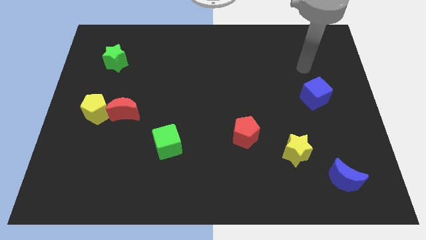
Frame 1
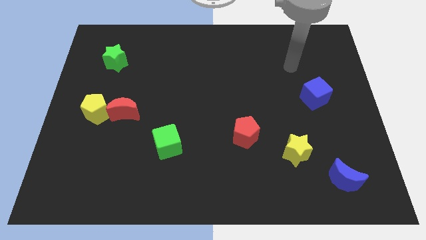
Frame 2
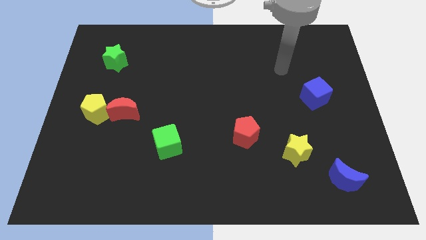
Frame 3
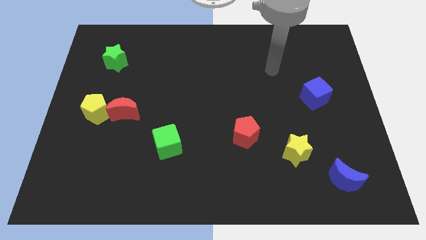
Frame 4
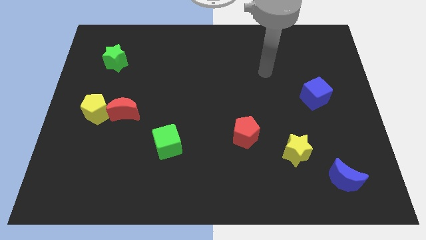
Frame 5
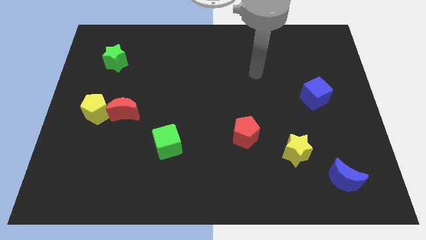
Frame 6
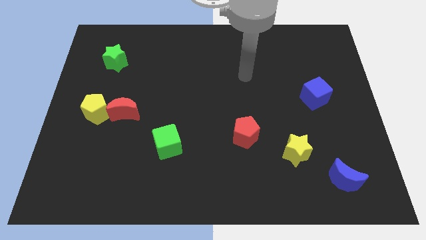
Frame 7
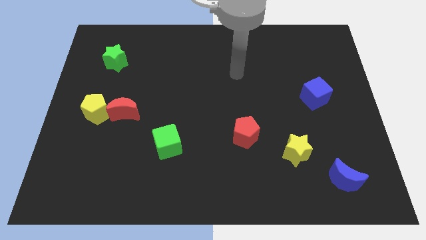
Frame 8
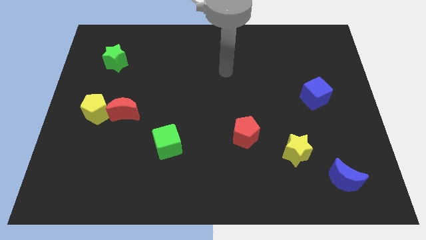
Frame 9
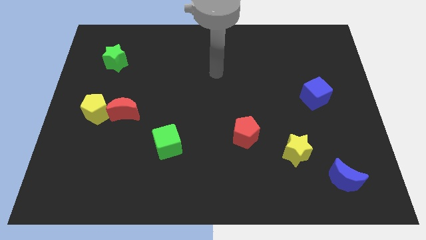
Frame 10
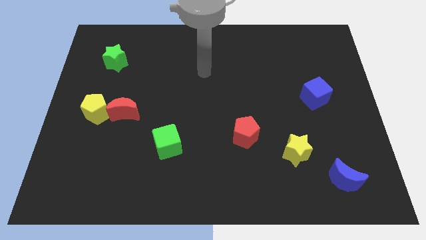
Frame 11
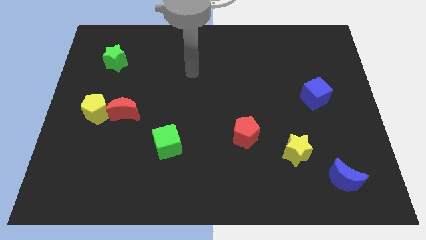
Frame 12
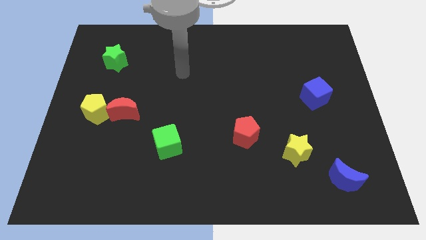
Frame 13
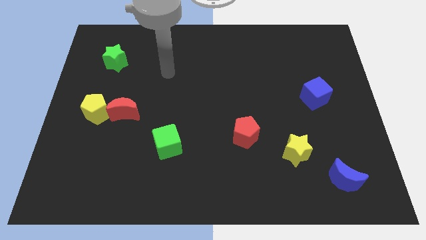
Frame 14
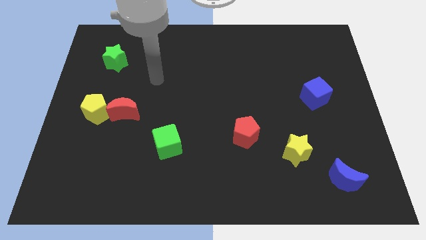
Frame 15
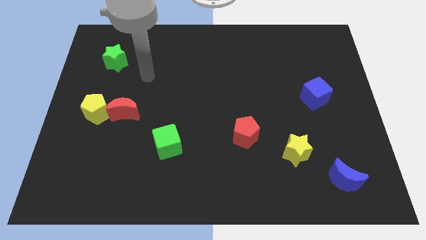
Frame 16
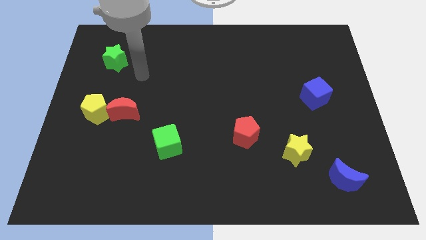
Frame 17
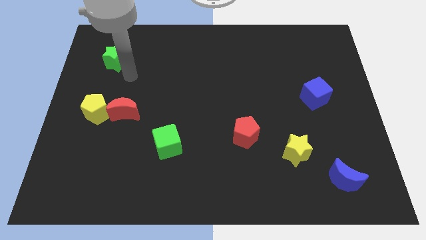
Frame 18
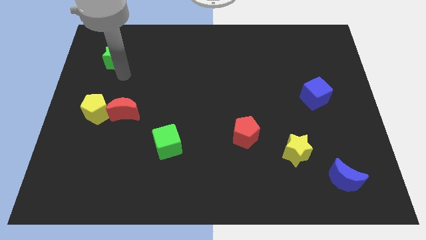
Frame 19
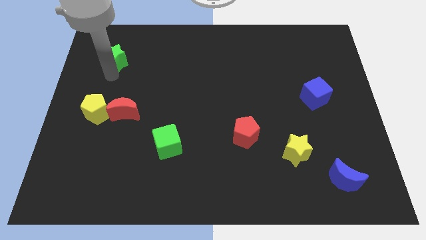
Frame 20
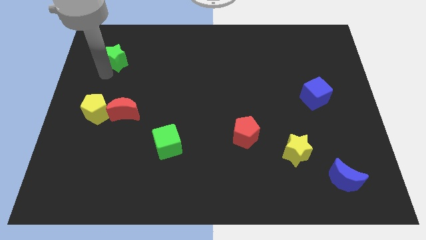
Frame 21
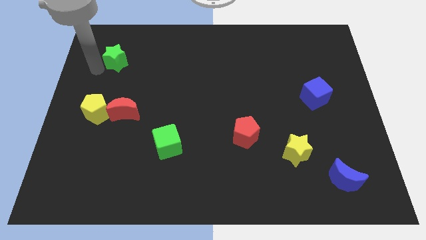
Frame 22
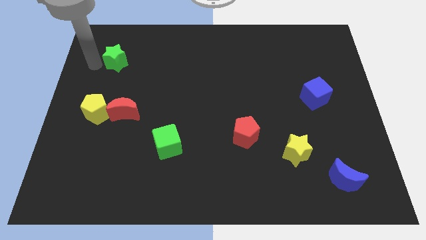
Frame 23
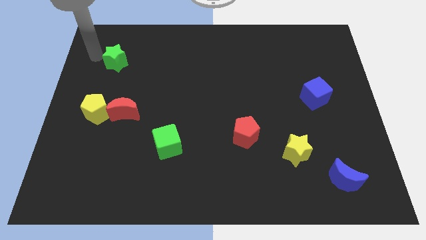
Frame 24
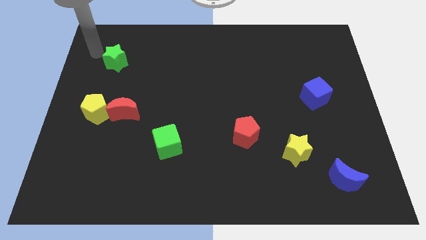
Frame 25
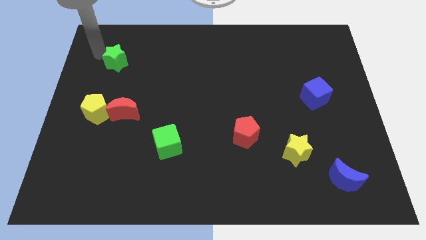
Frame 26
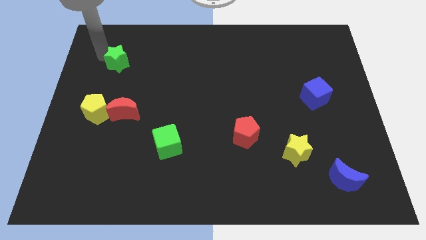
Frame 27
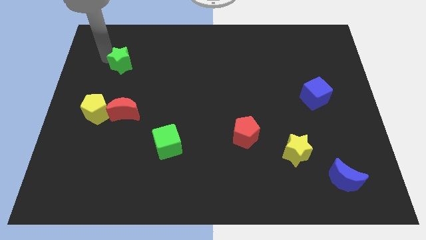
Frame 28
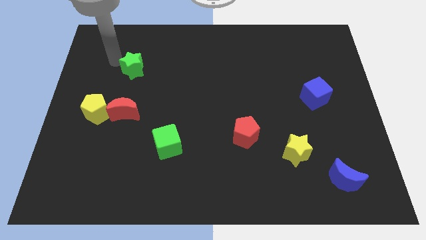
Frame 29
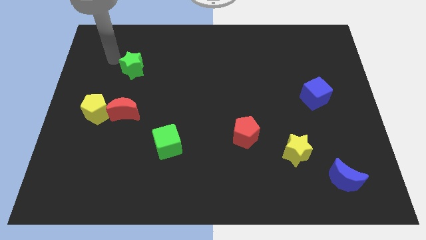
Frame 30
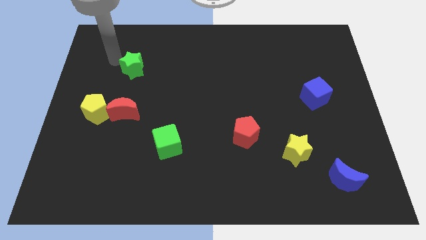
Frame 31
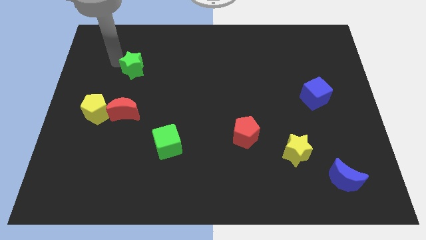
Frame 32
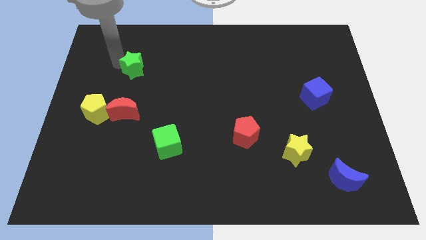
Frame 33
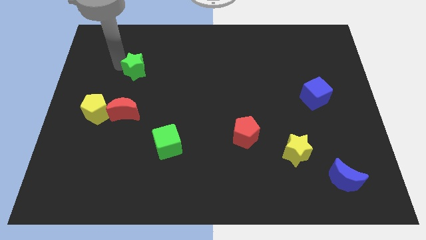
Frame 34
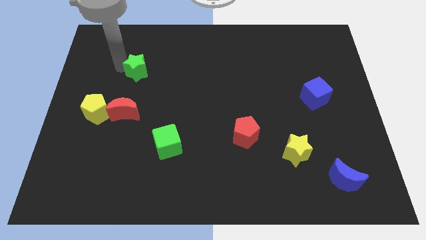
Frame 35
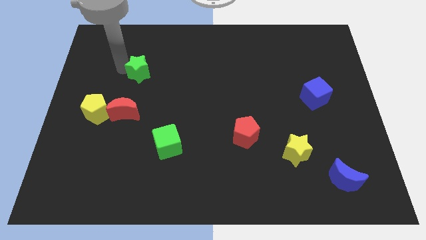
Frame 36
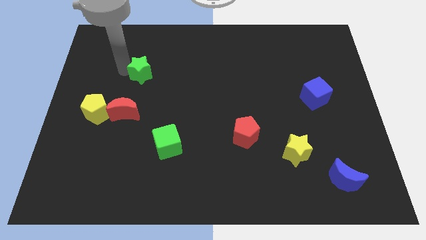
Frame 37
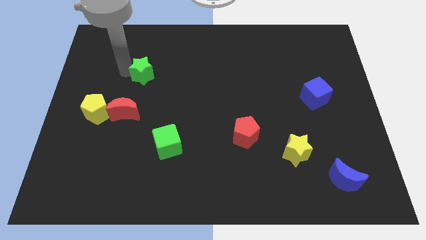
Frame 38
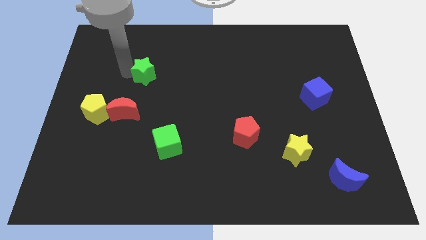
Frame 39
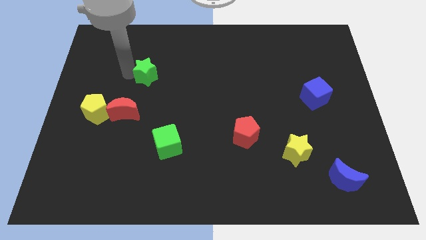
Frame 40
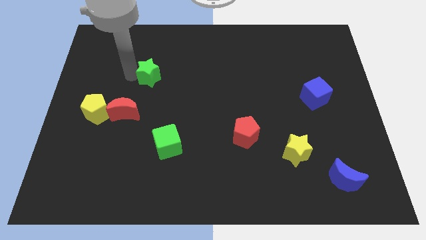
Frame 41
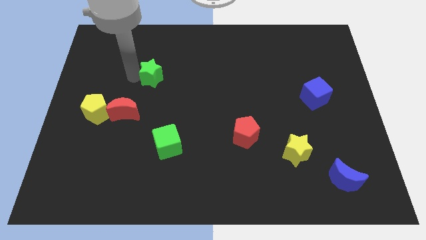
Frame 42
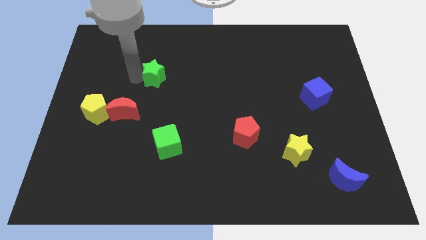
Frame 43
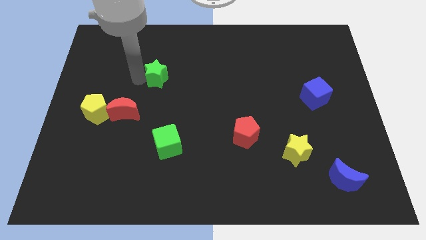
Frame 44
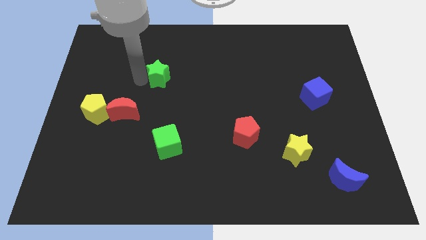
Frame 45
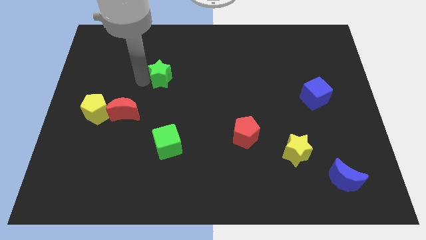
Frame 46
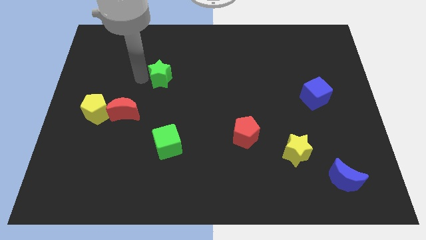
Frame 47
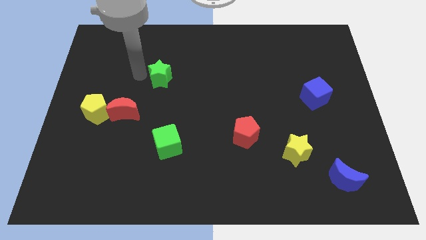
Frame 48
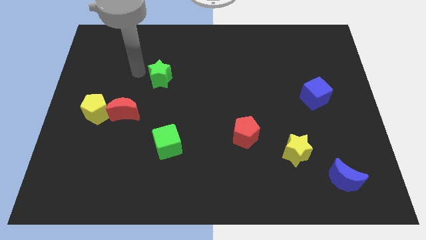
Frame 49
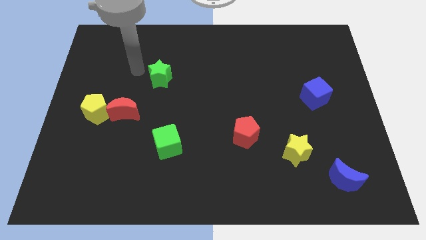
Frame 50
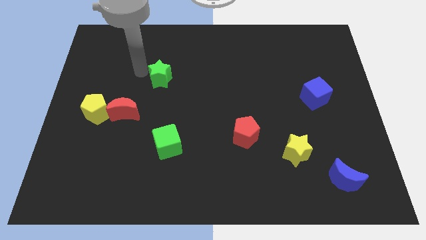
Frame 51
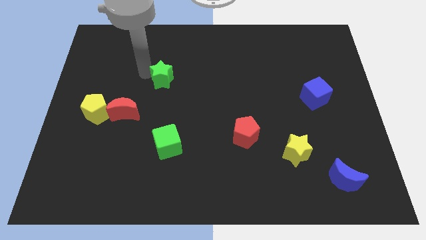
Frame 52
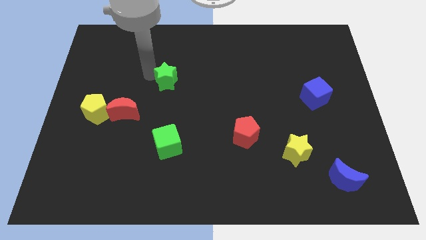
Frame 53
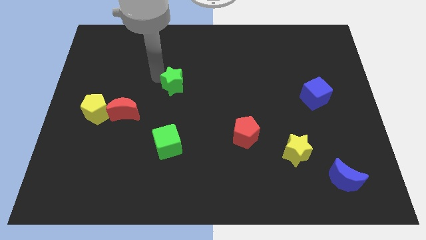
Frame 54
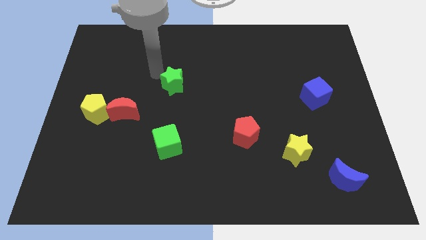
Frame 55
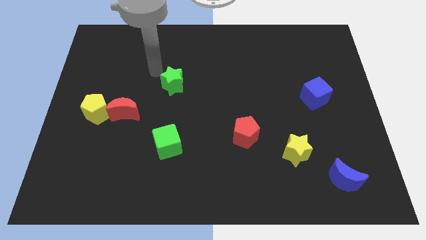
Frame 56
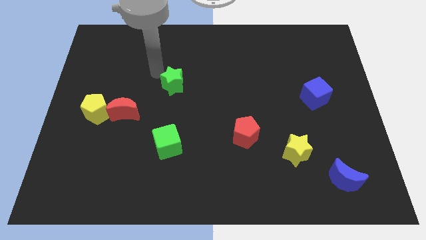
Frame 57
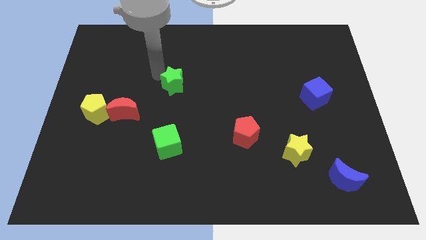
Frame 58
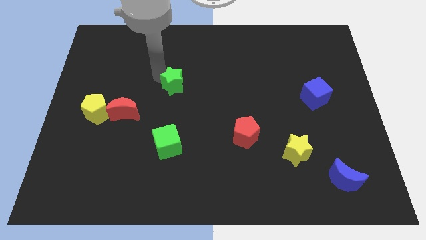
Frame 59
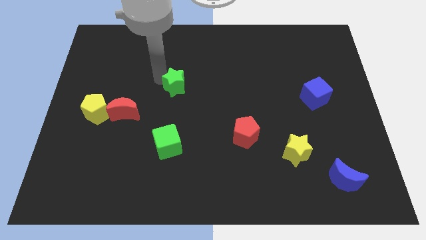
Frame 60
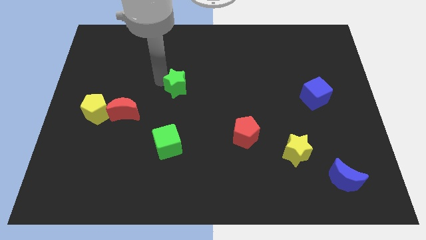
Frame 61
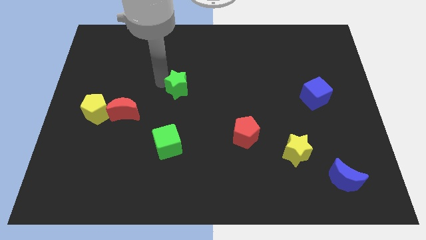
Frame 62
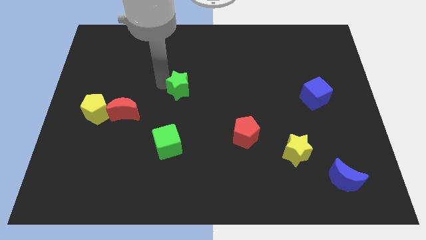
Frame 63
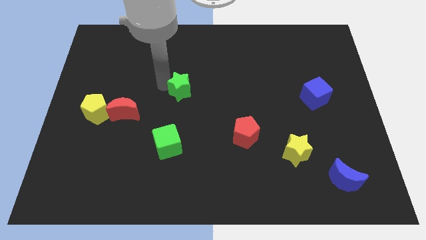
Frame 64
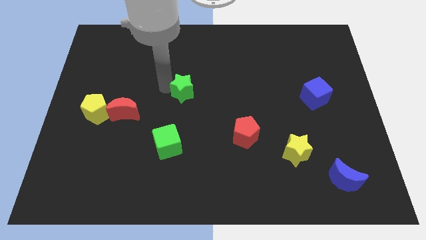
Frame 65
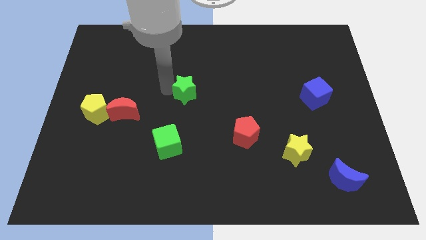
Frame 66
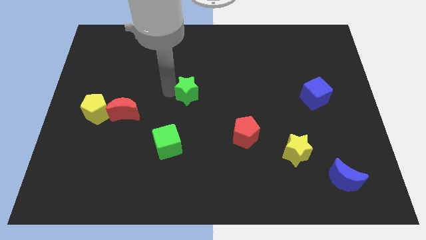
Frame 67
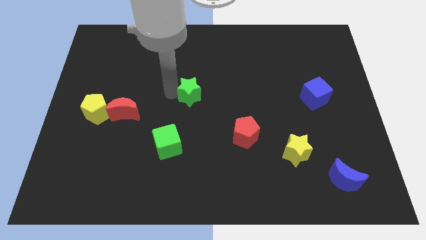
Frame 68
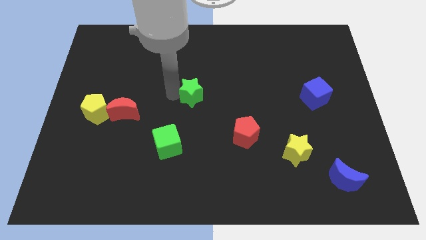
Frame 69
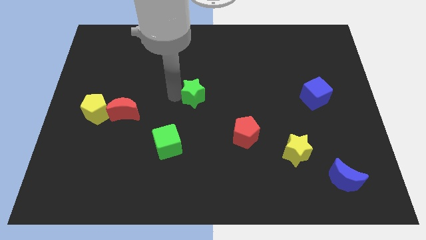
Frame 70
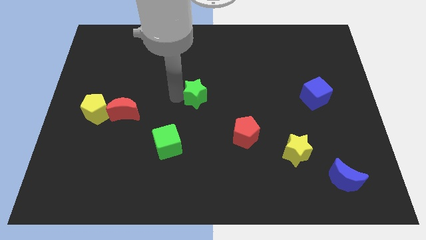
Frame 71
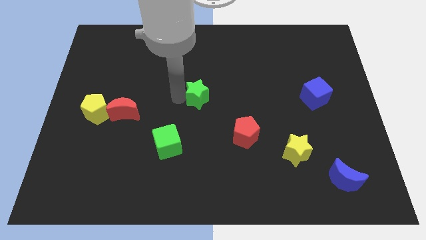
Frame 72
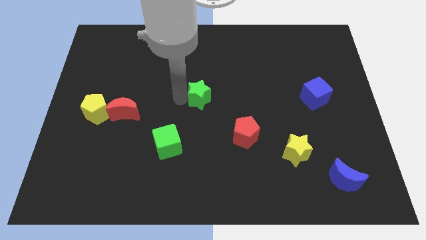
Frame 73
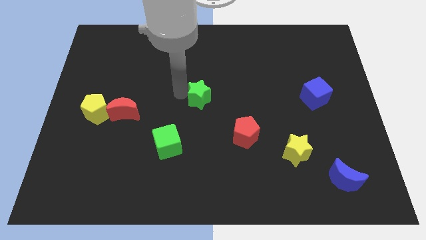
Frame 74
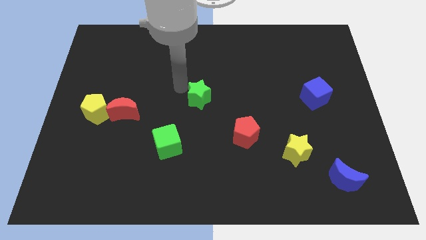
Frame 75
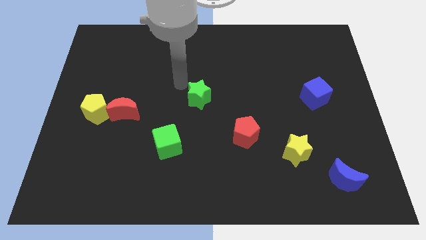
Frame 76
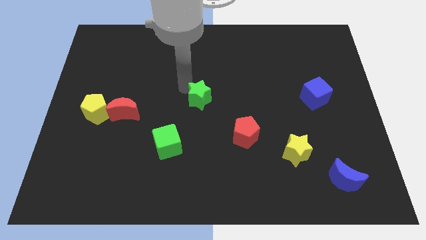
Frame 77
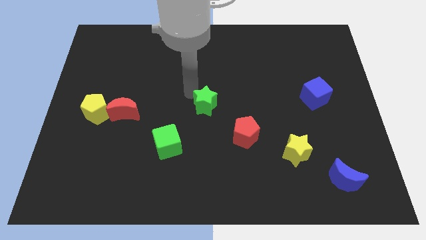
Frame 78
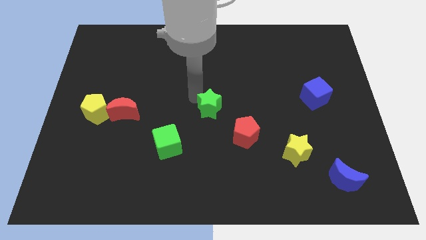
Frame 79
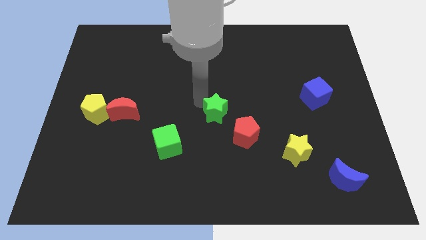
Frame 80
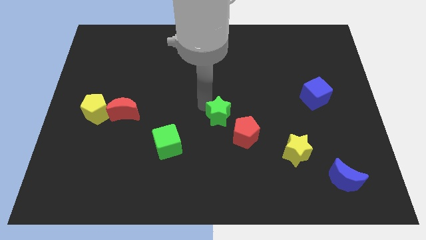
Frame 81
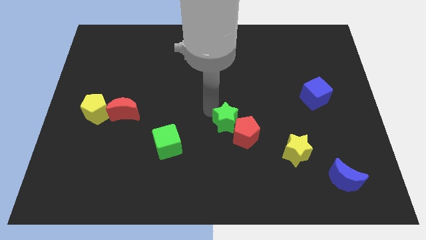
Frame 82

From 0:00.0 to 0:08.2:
put the green star to the red pentagon
